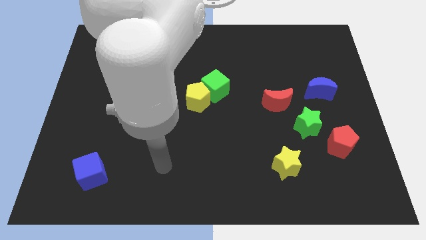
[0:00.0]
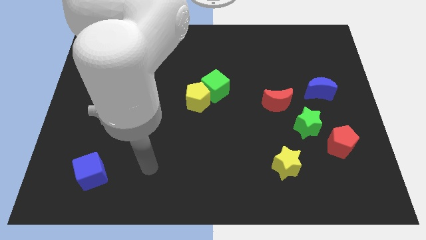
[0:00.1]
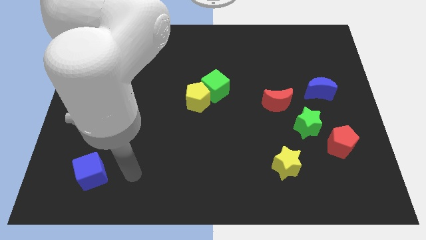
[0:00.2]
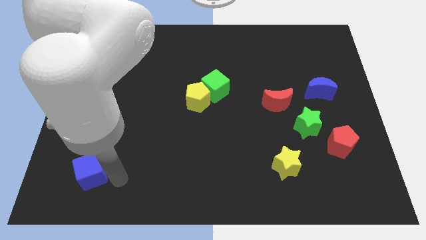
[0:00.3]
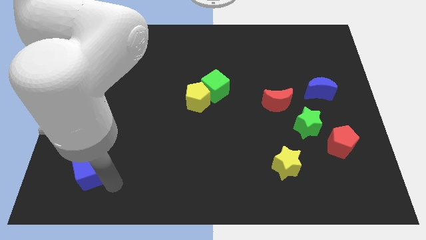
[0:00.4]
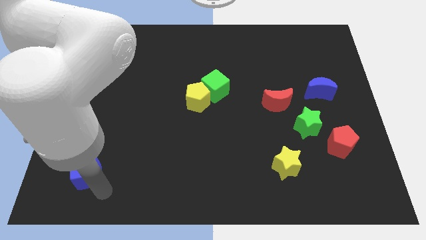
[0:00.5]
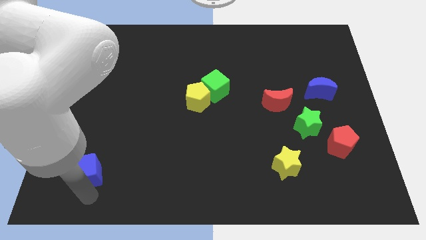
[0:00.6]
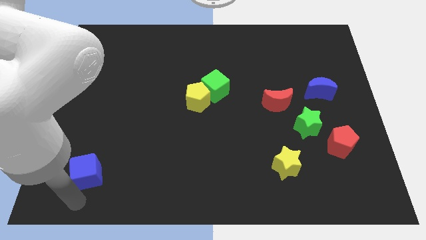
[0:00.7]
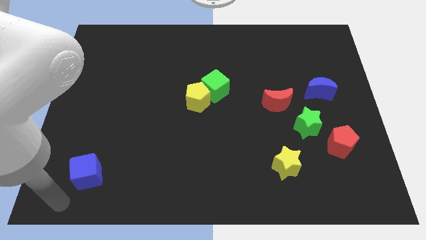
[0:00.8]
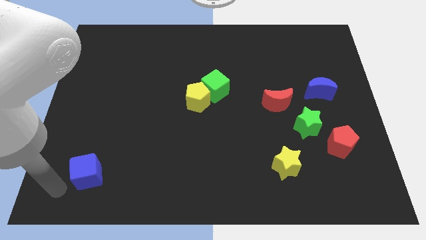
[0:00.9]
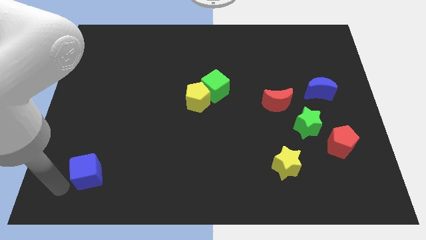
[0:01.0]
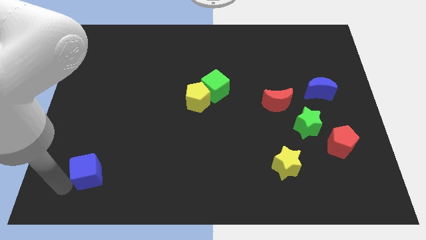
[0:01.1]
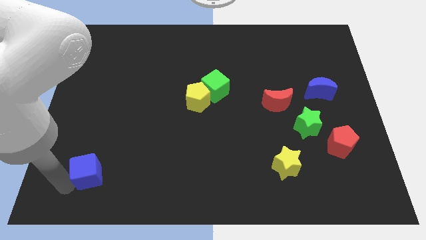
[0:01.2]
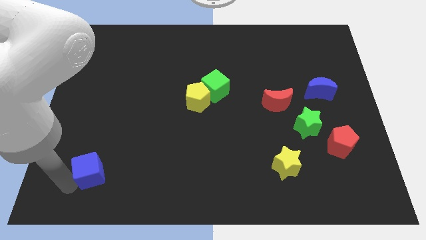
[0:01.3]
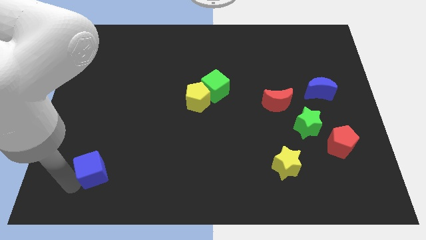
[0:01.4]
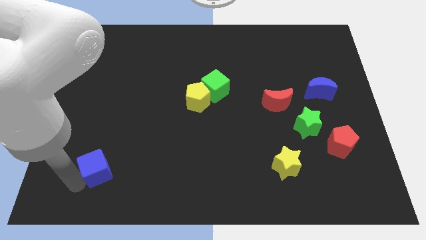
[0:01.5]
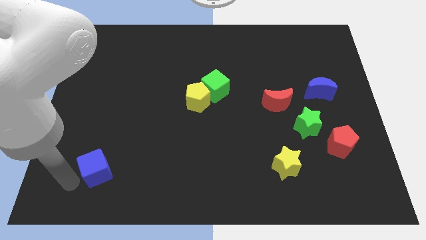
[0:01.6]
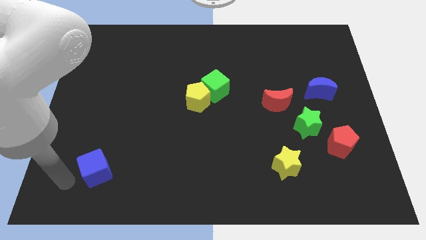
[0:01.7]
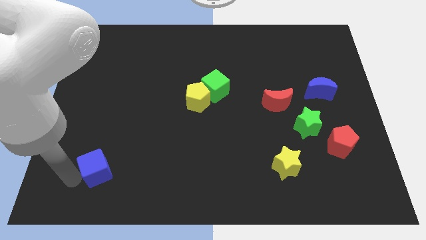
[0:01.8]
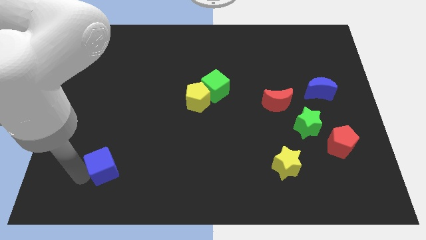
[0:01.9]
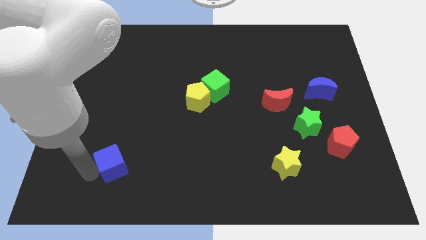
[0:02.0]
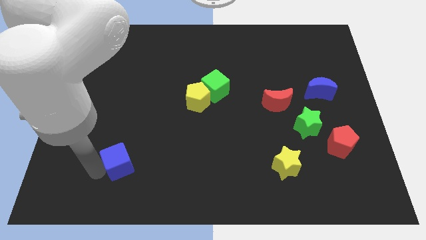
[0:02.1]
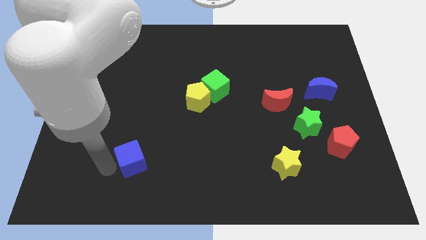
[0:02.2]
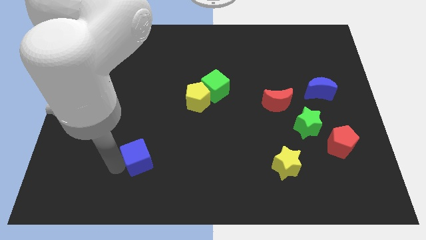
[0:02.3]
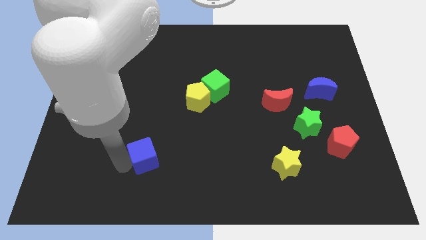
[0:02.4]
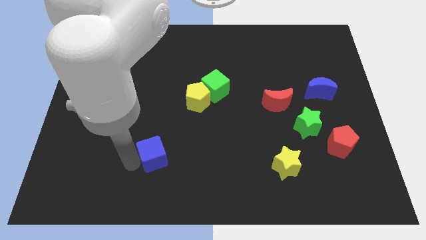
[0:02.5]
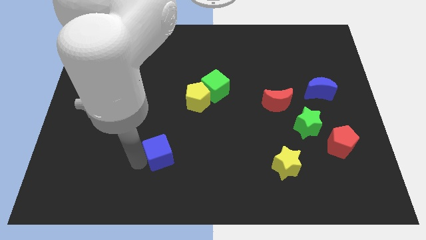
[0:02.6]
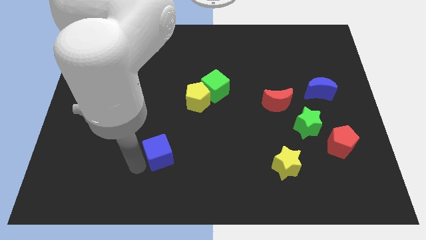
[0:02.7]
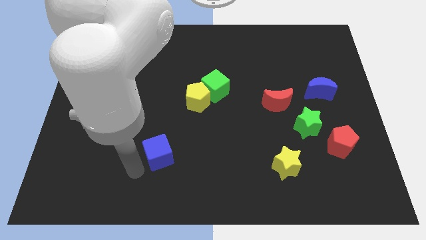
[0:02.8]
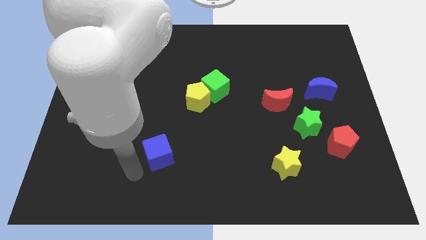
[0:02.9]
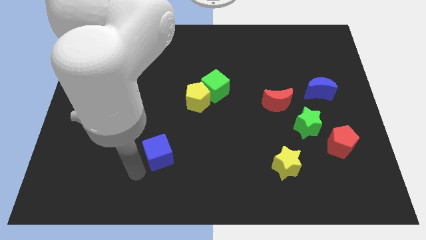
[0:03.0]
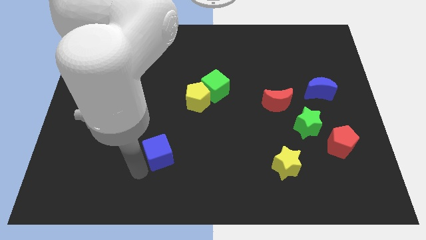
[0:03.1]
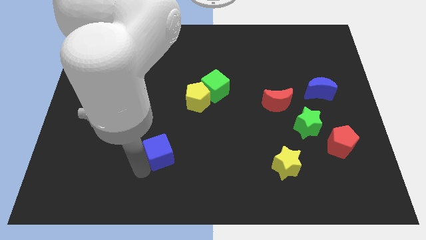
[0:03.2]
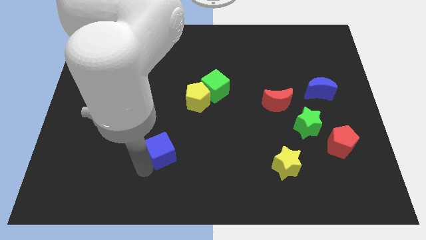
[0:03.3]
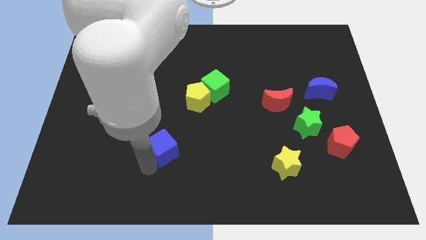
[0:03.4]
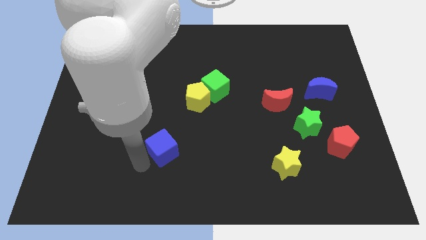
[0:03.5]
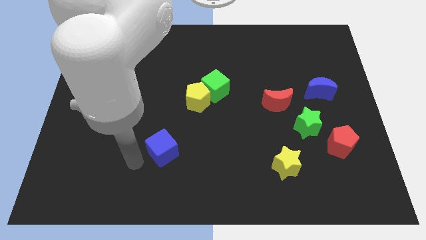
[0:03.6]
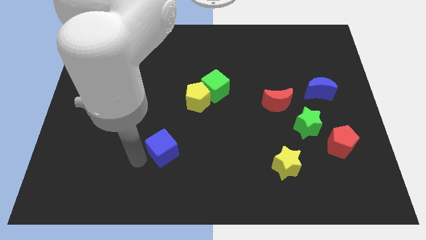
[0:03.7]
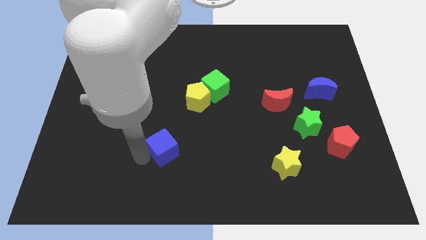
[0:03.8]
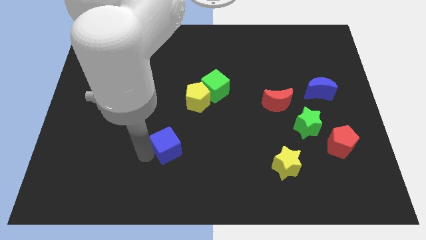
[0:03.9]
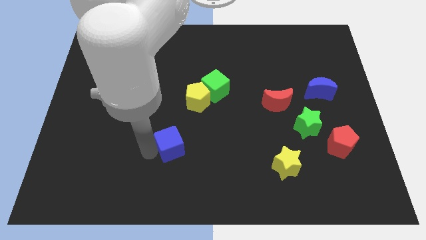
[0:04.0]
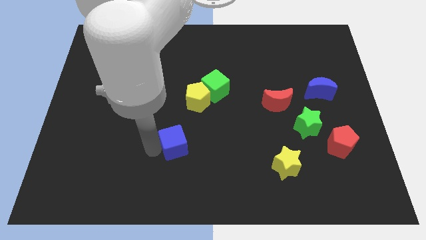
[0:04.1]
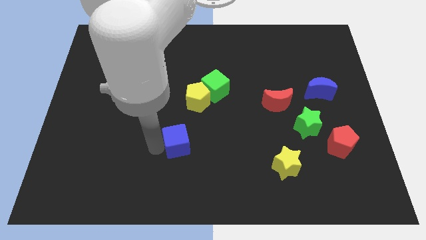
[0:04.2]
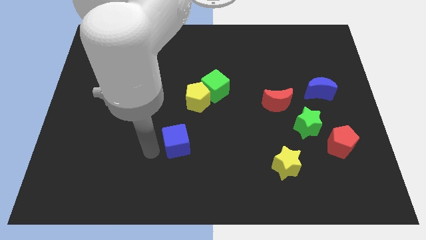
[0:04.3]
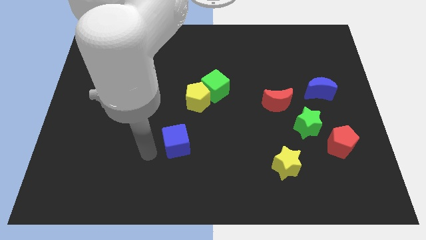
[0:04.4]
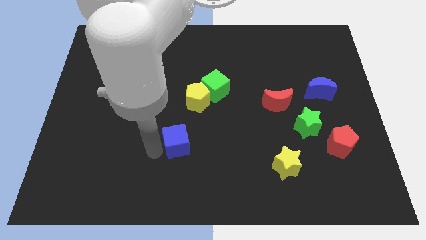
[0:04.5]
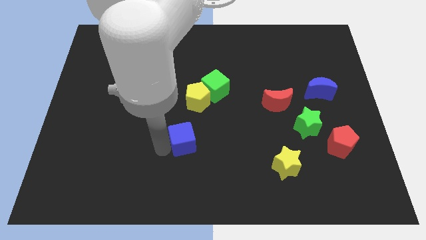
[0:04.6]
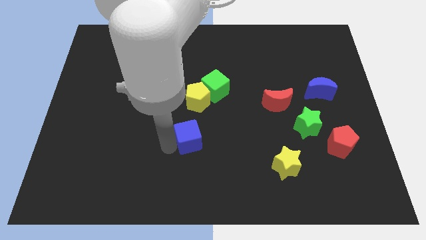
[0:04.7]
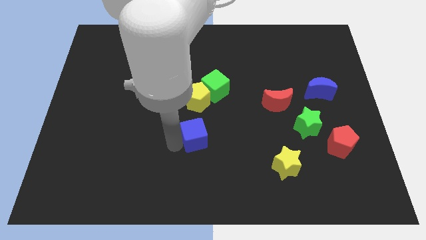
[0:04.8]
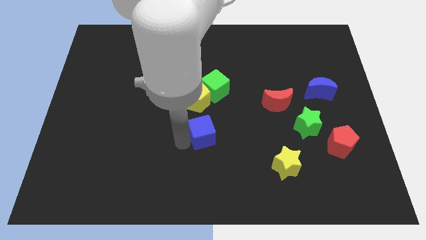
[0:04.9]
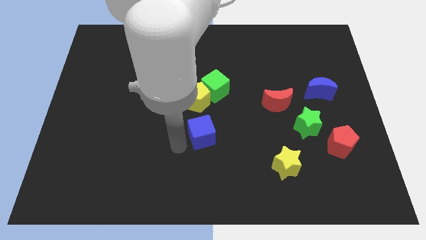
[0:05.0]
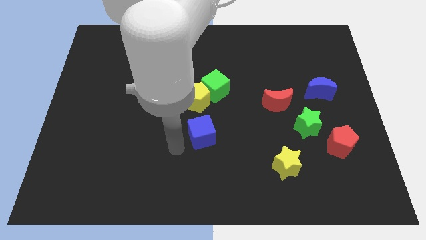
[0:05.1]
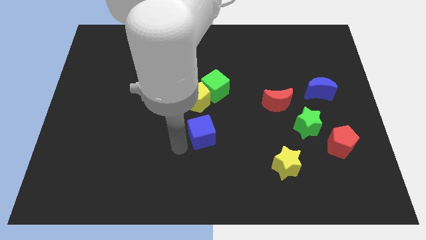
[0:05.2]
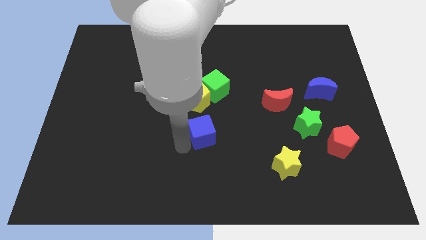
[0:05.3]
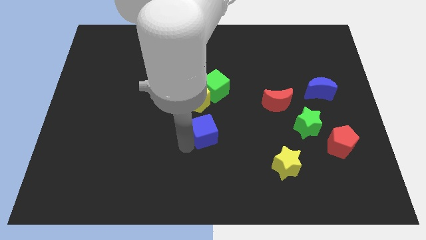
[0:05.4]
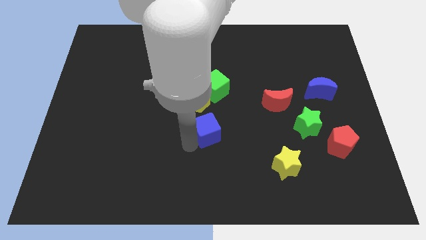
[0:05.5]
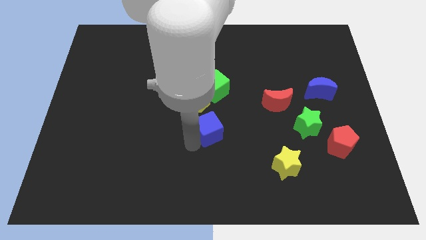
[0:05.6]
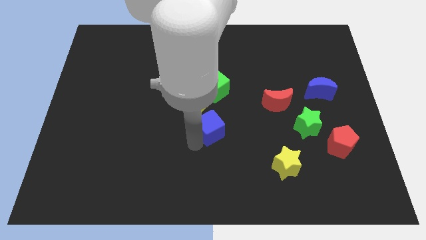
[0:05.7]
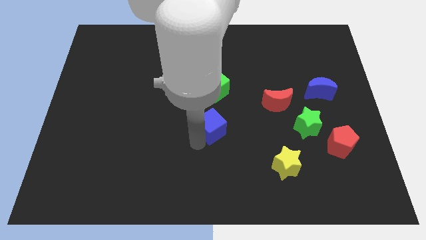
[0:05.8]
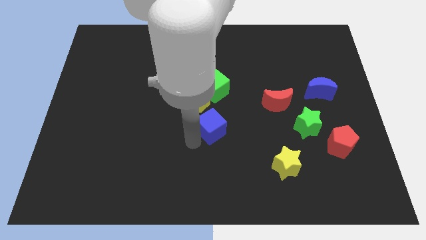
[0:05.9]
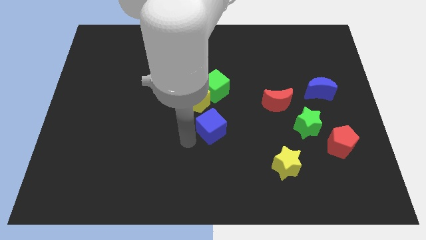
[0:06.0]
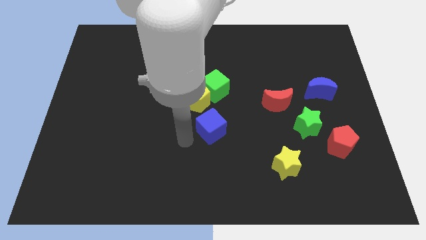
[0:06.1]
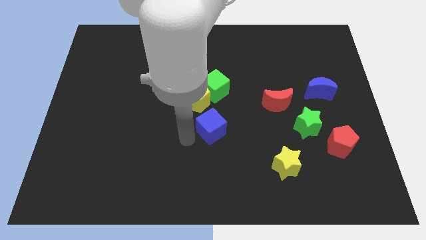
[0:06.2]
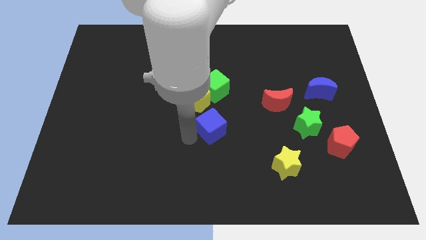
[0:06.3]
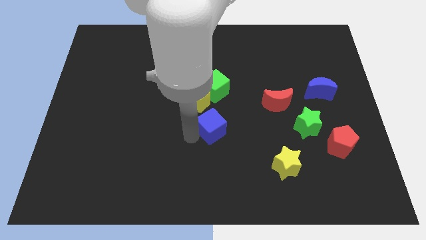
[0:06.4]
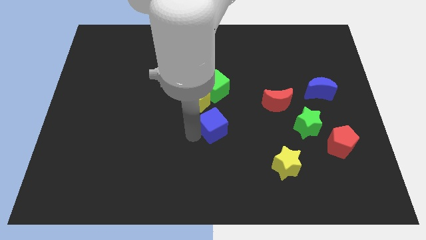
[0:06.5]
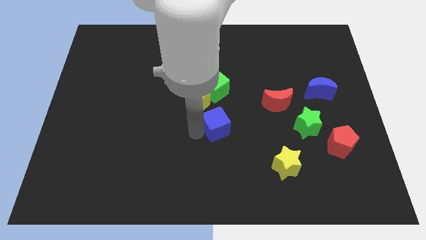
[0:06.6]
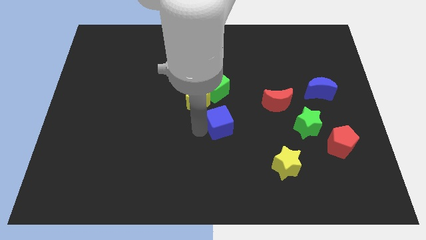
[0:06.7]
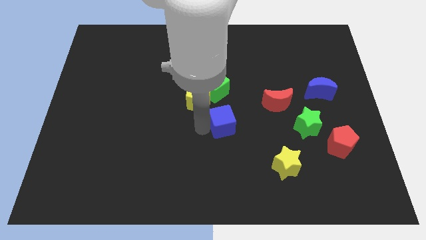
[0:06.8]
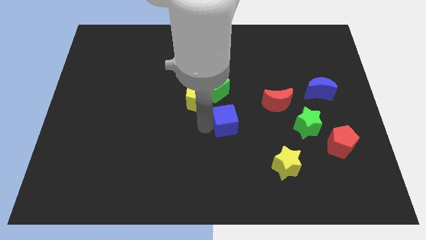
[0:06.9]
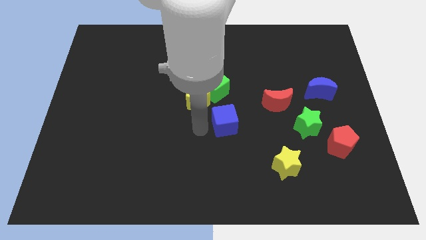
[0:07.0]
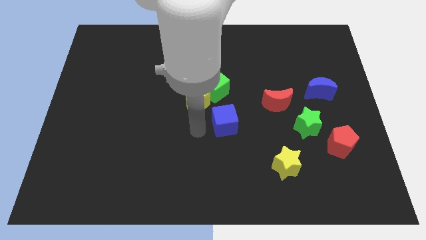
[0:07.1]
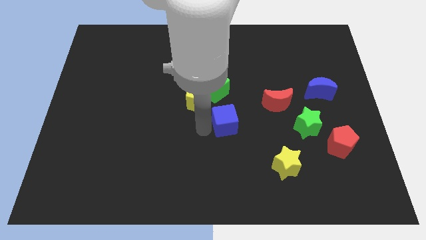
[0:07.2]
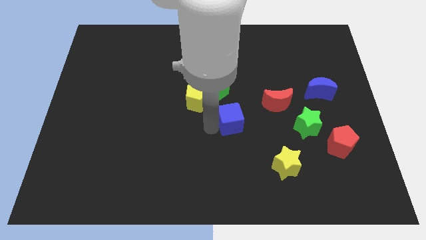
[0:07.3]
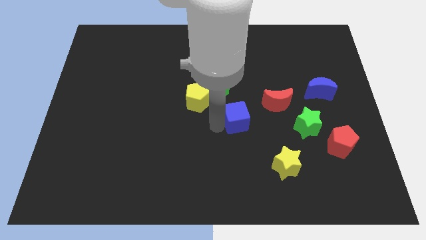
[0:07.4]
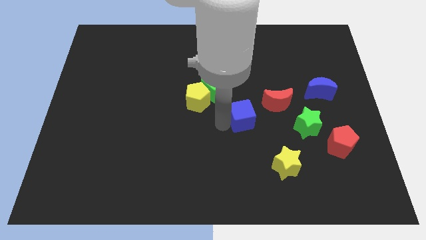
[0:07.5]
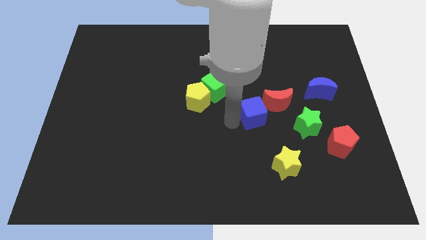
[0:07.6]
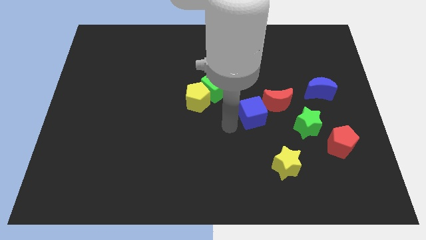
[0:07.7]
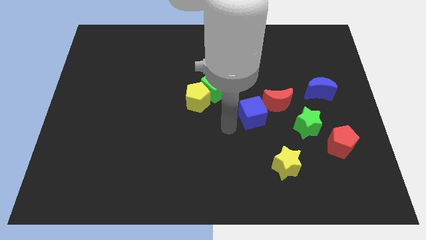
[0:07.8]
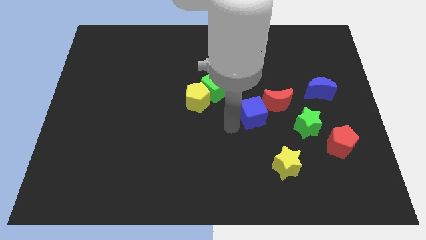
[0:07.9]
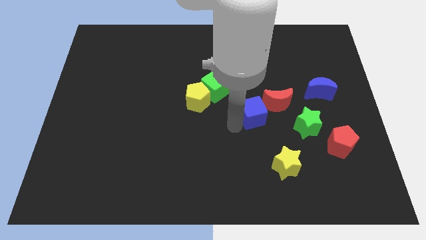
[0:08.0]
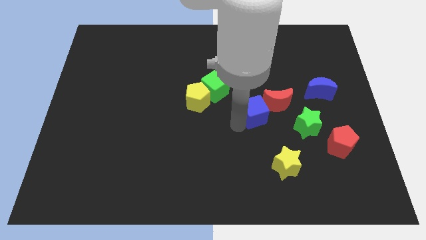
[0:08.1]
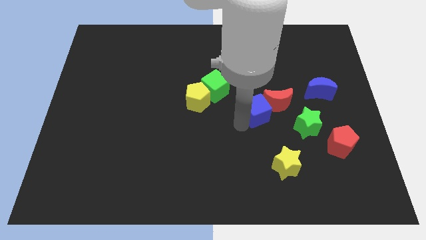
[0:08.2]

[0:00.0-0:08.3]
move the blue cube to the red moon
